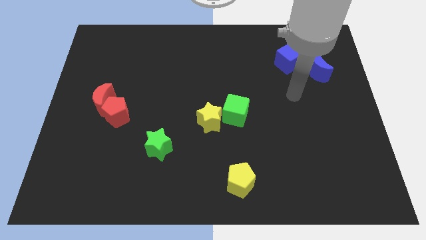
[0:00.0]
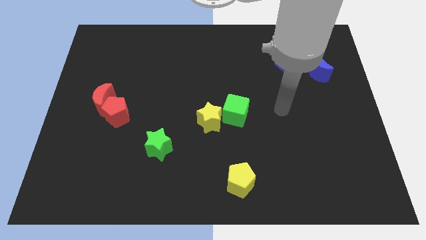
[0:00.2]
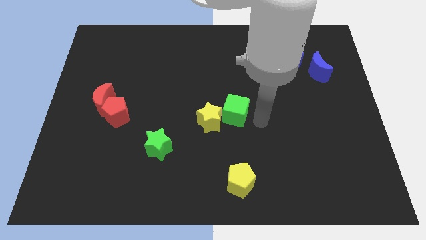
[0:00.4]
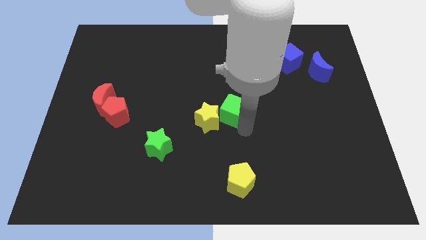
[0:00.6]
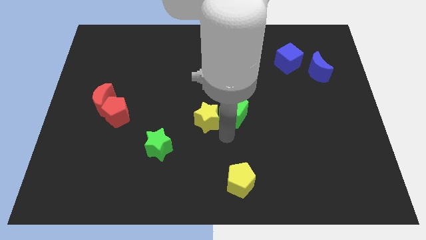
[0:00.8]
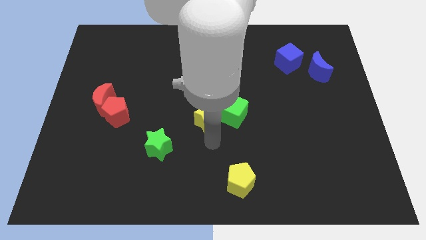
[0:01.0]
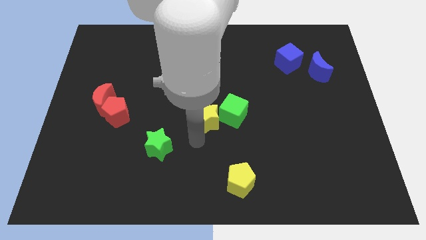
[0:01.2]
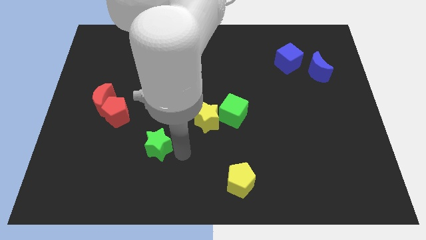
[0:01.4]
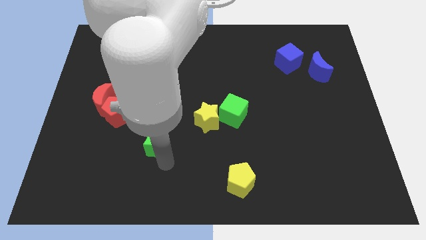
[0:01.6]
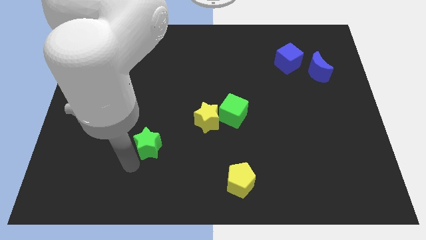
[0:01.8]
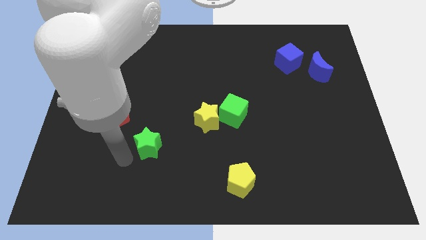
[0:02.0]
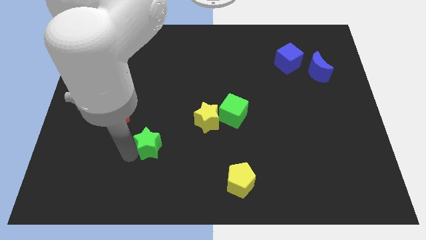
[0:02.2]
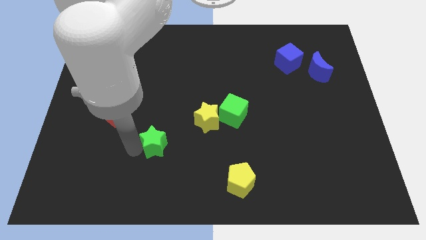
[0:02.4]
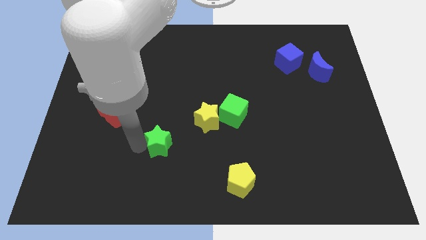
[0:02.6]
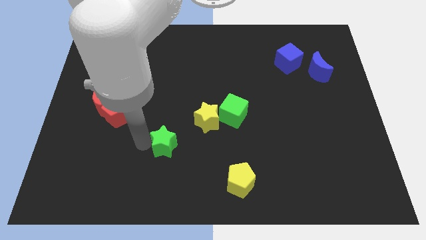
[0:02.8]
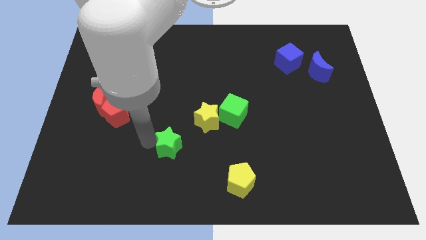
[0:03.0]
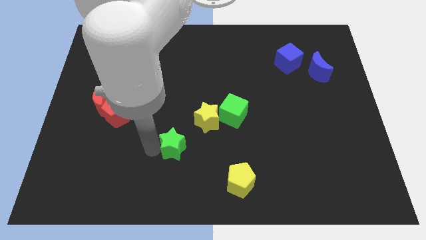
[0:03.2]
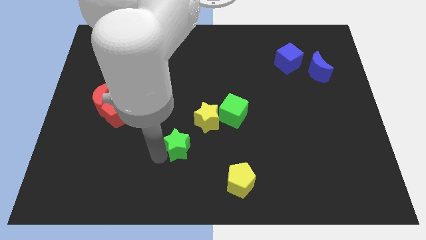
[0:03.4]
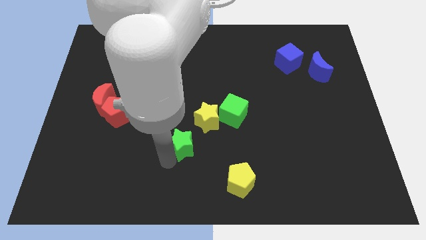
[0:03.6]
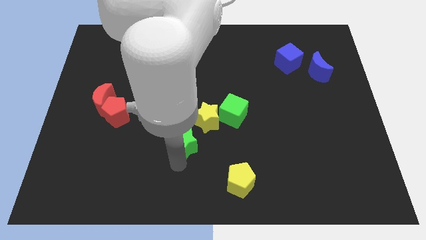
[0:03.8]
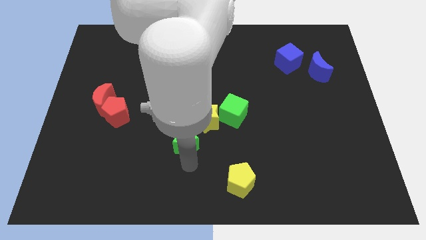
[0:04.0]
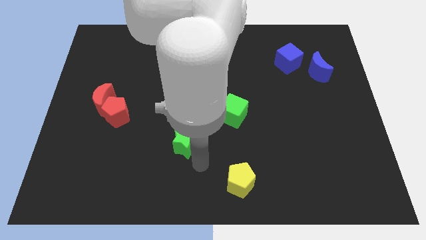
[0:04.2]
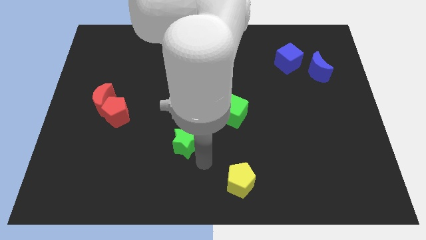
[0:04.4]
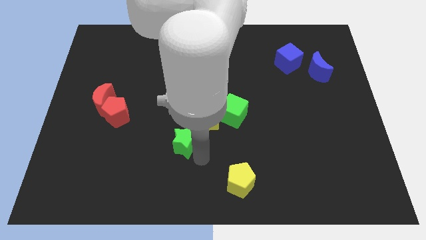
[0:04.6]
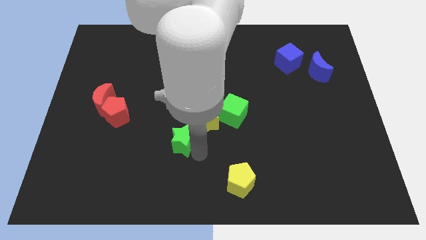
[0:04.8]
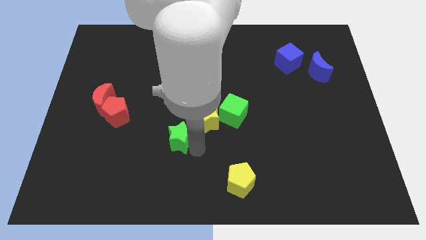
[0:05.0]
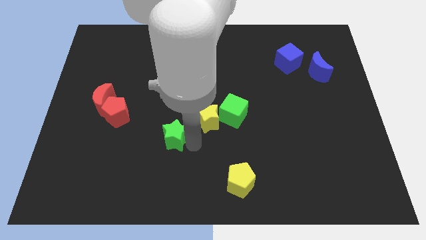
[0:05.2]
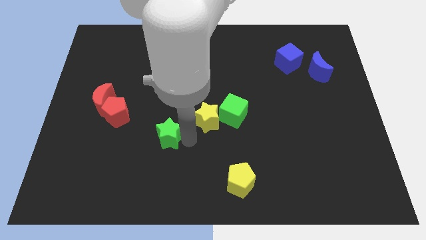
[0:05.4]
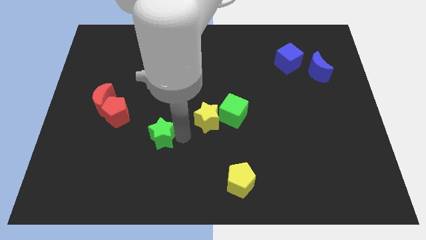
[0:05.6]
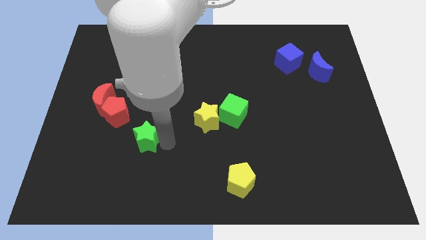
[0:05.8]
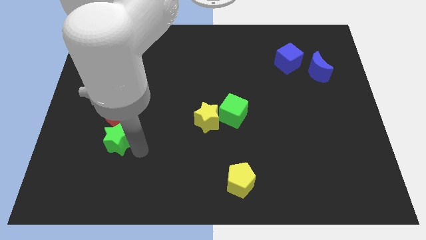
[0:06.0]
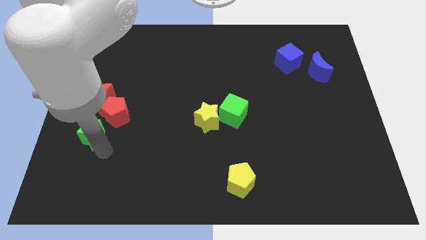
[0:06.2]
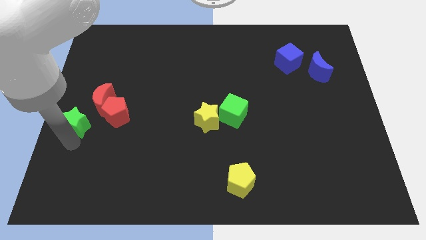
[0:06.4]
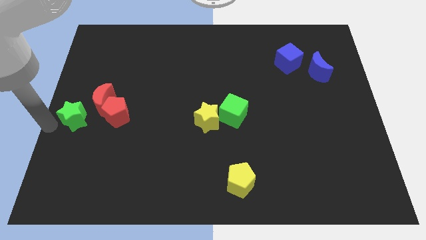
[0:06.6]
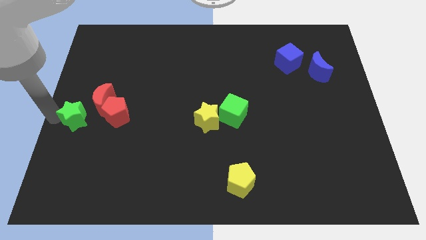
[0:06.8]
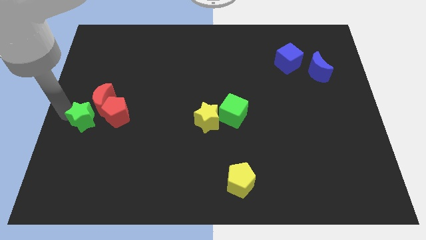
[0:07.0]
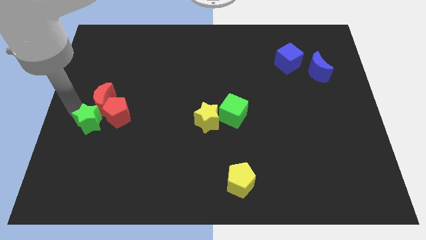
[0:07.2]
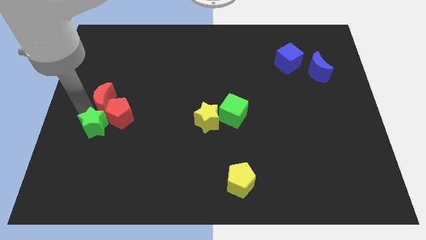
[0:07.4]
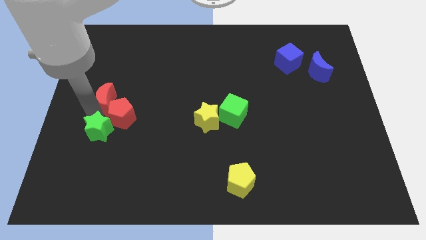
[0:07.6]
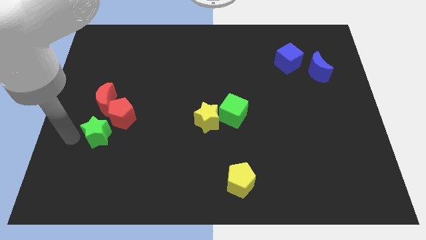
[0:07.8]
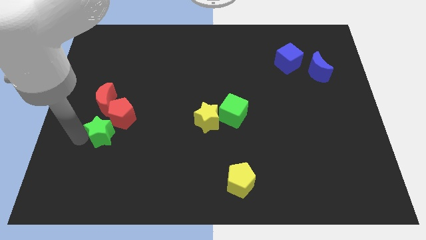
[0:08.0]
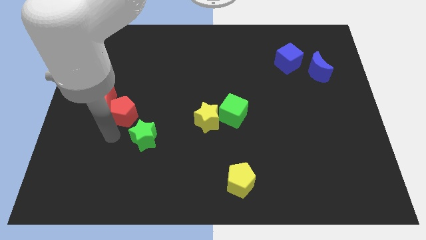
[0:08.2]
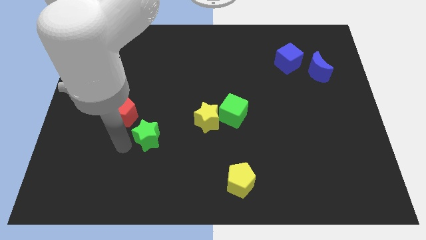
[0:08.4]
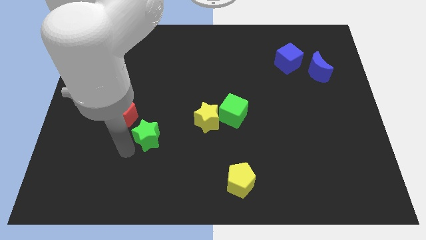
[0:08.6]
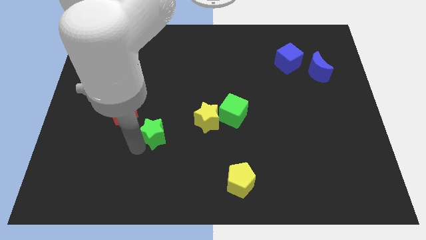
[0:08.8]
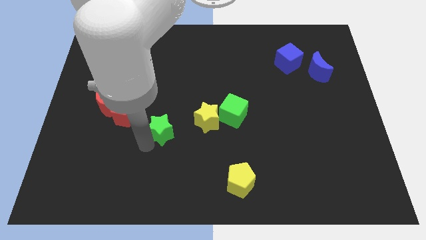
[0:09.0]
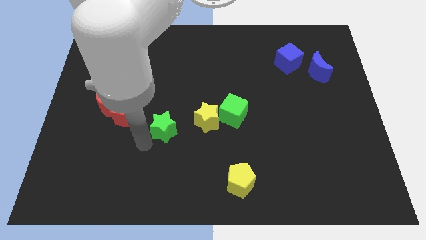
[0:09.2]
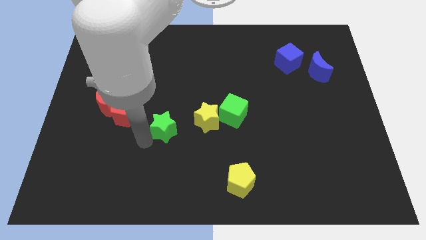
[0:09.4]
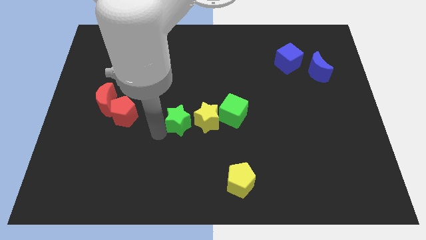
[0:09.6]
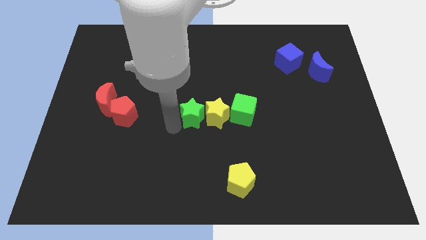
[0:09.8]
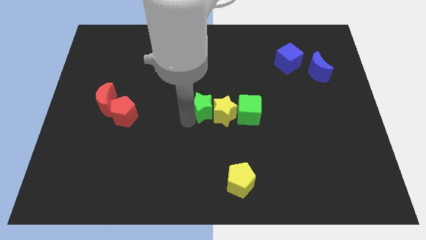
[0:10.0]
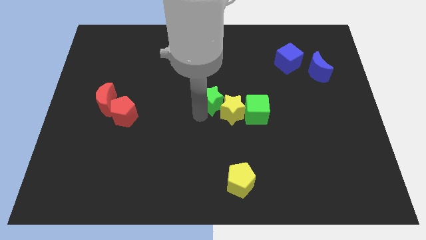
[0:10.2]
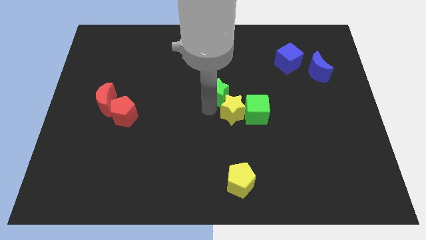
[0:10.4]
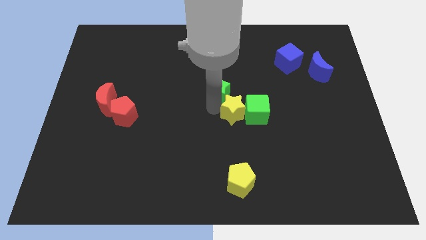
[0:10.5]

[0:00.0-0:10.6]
slide the green star diagonally upwards and to the right

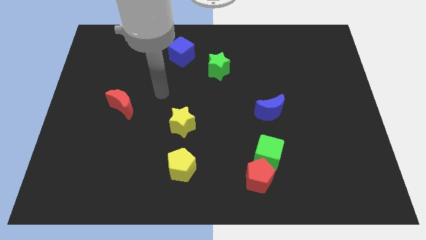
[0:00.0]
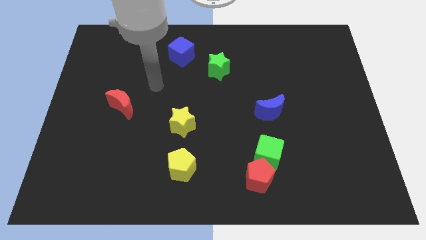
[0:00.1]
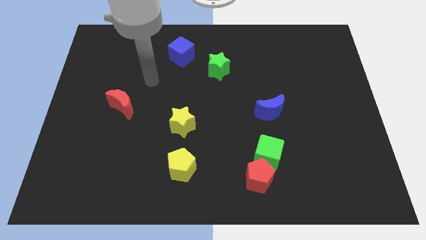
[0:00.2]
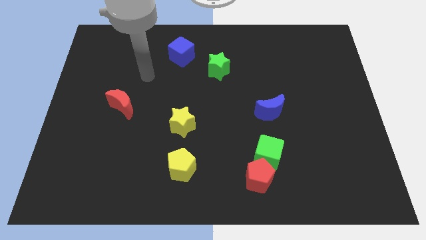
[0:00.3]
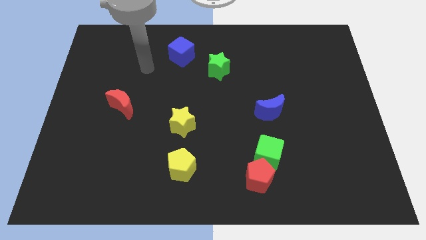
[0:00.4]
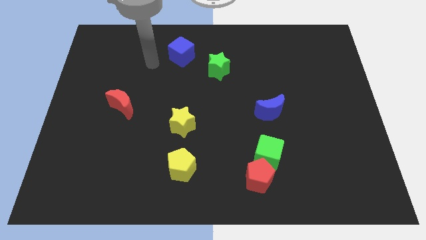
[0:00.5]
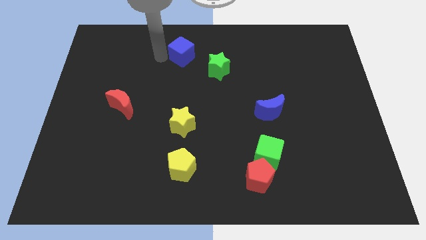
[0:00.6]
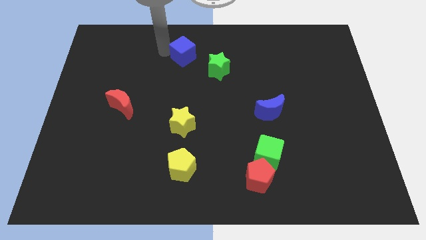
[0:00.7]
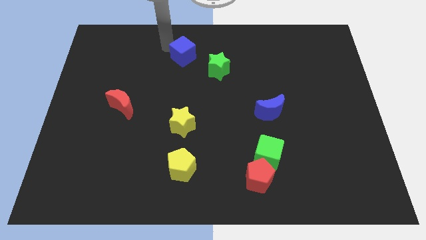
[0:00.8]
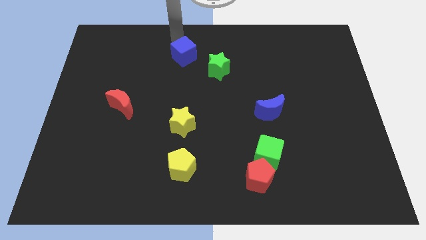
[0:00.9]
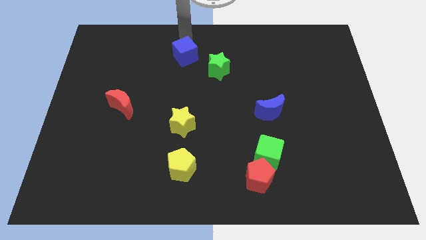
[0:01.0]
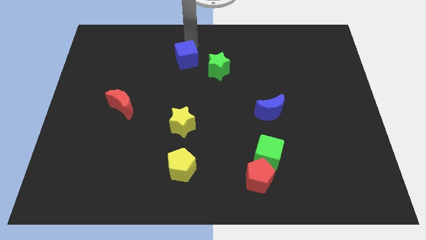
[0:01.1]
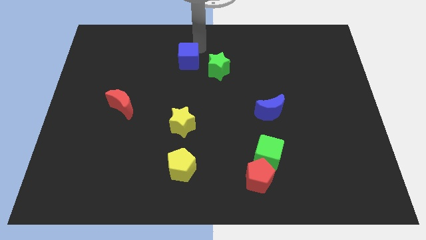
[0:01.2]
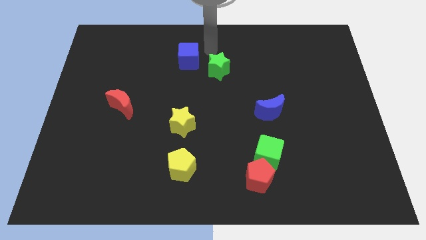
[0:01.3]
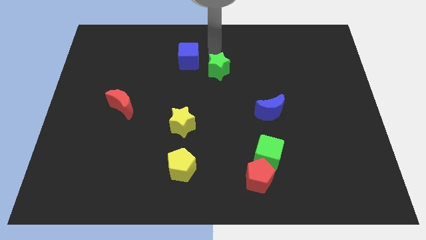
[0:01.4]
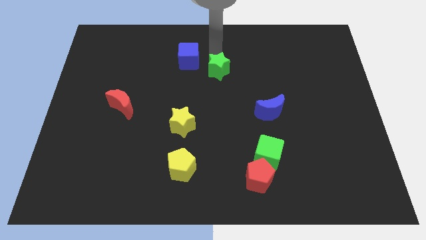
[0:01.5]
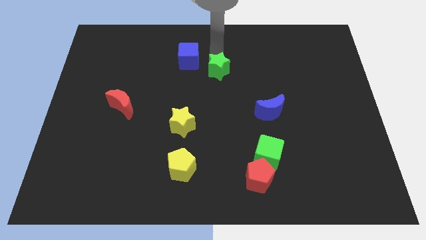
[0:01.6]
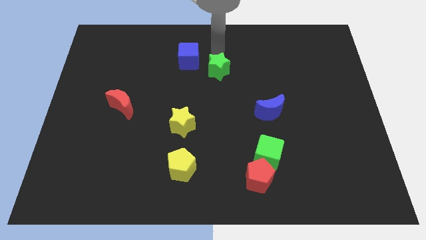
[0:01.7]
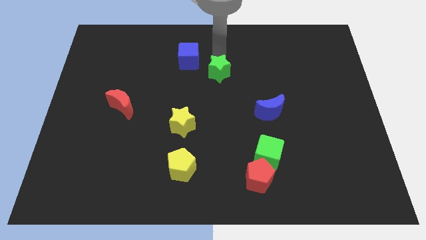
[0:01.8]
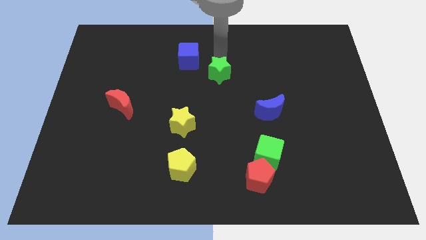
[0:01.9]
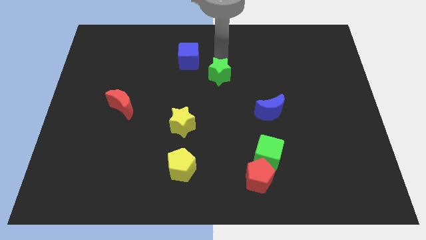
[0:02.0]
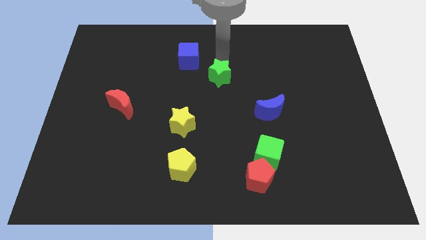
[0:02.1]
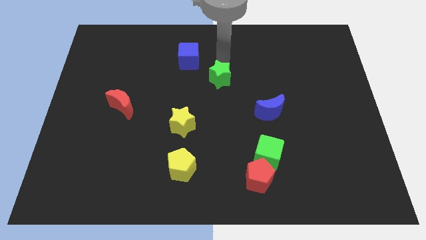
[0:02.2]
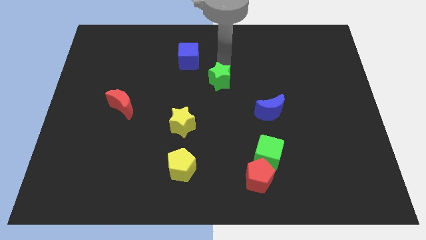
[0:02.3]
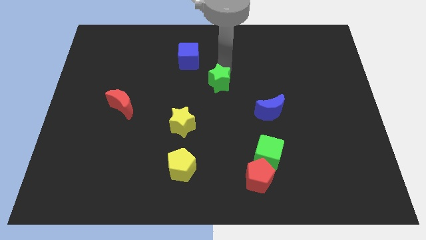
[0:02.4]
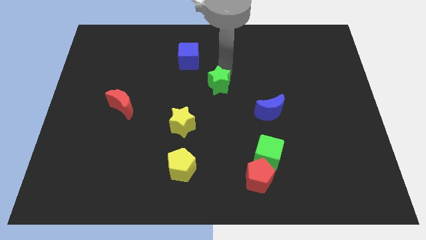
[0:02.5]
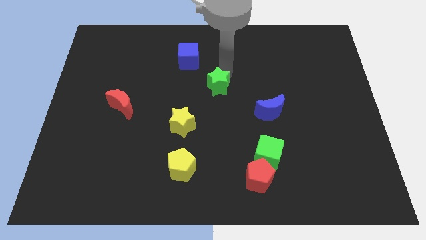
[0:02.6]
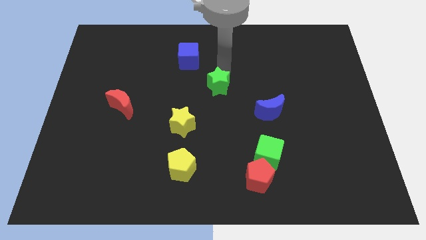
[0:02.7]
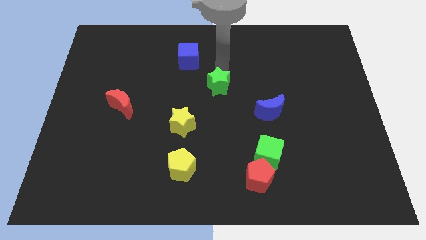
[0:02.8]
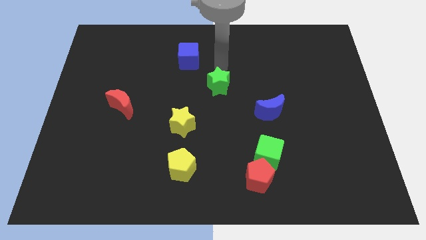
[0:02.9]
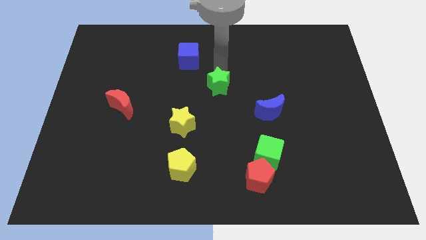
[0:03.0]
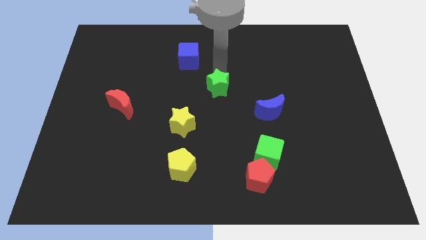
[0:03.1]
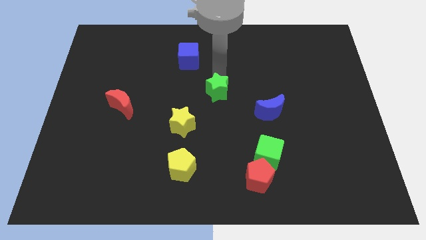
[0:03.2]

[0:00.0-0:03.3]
move the green star somewhat downwards
